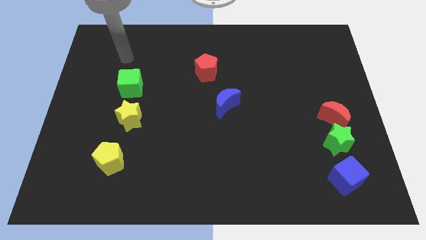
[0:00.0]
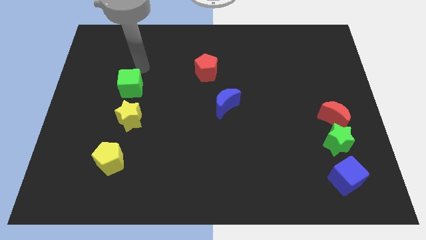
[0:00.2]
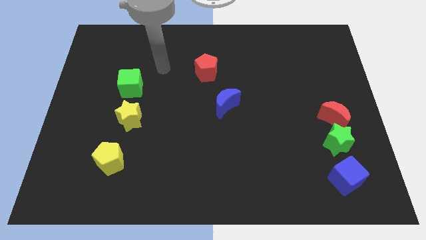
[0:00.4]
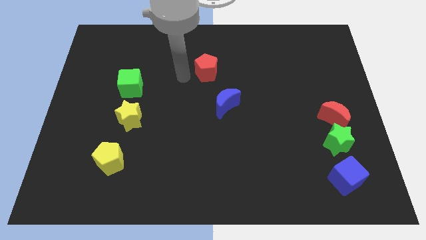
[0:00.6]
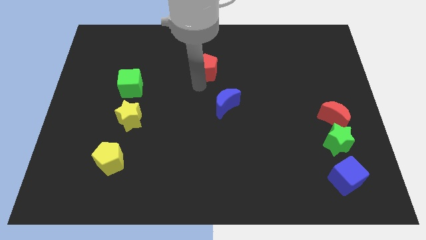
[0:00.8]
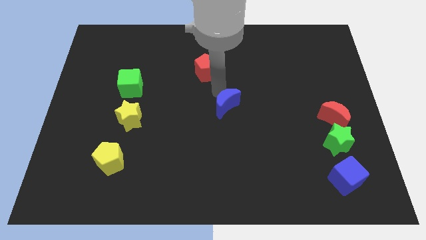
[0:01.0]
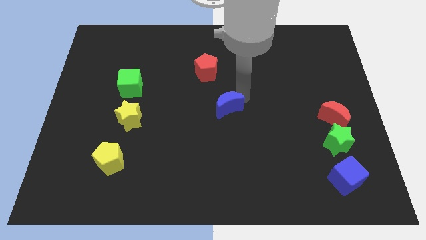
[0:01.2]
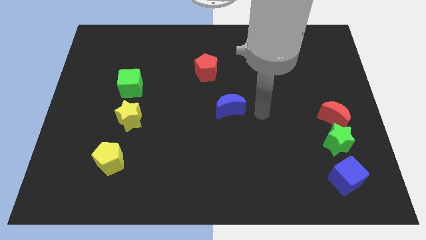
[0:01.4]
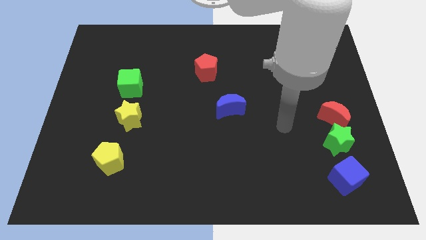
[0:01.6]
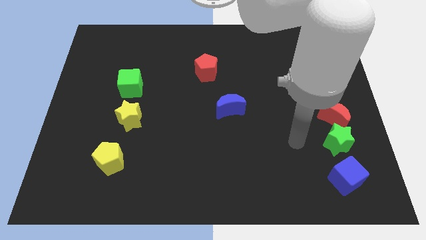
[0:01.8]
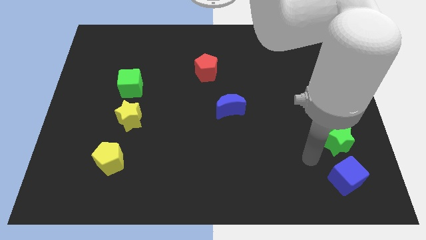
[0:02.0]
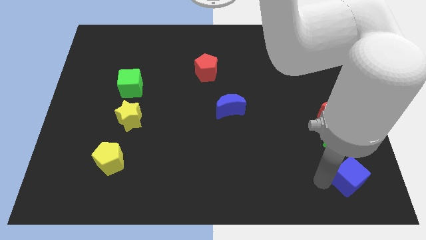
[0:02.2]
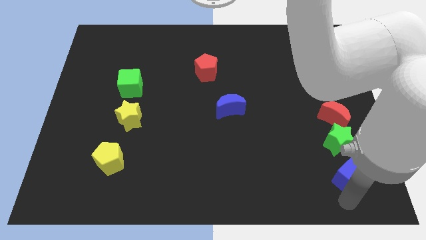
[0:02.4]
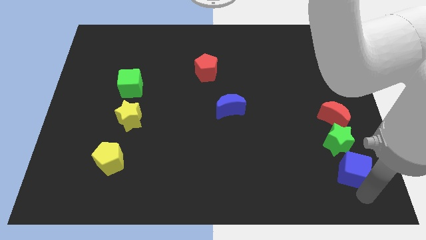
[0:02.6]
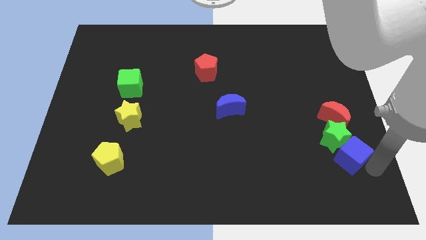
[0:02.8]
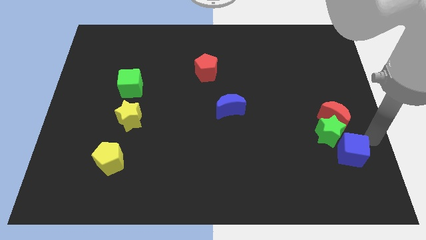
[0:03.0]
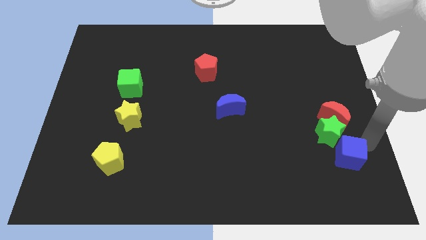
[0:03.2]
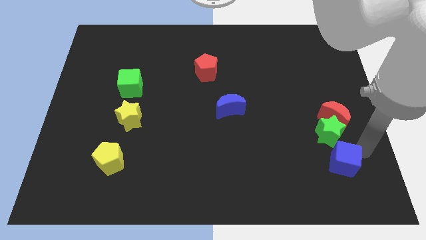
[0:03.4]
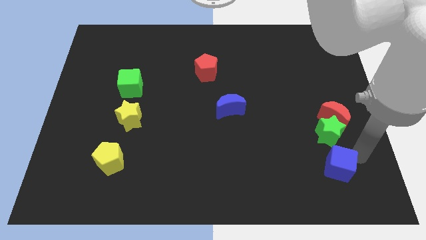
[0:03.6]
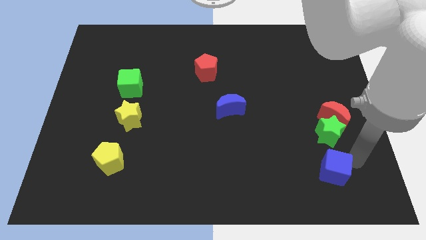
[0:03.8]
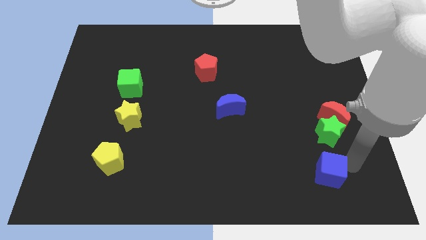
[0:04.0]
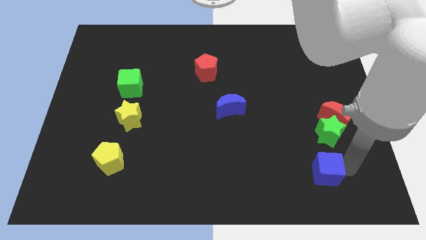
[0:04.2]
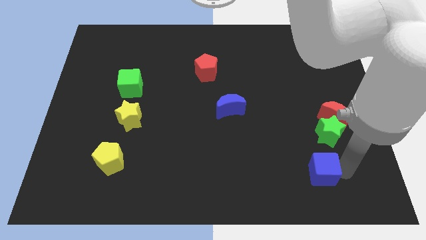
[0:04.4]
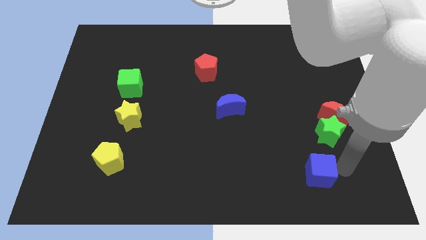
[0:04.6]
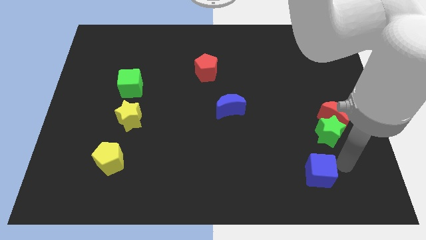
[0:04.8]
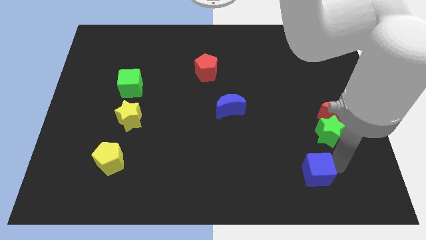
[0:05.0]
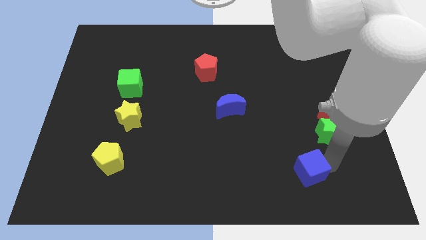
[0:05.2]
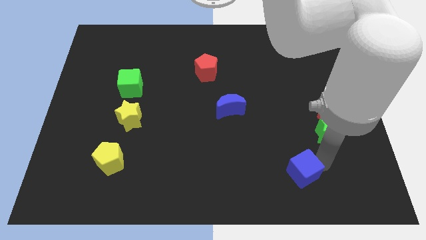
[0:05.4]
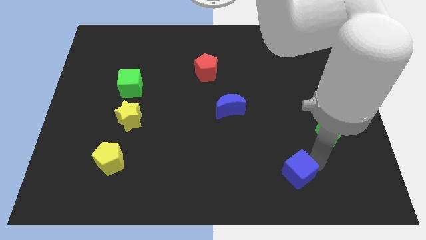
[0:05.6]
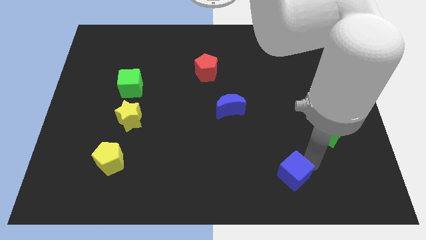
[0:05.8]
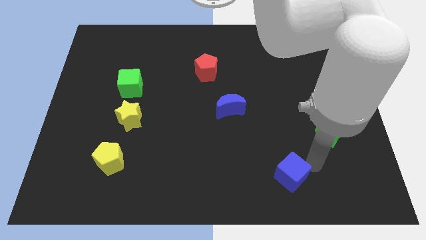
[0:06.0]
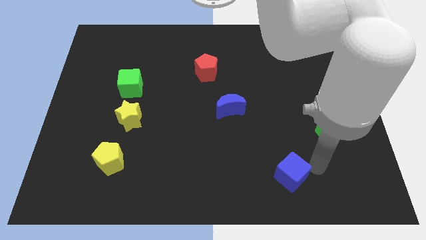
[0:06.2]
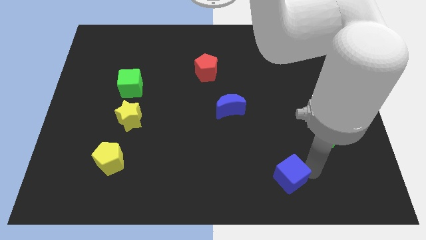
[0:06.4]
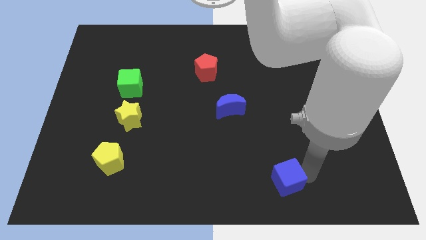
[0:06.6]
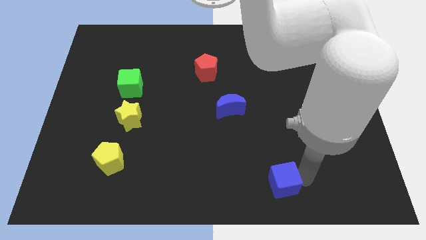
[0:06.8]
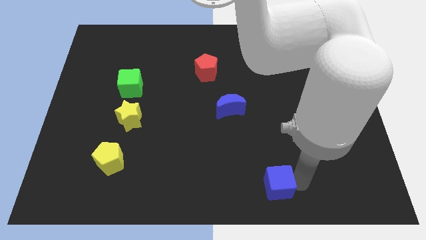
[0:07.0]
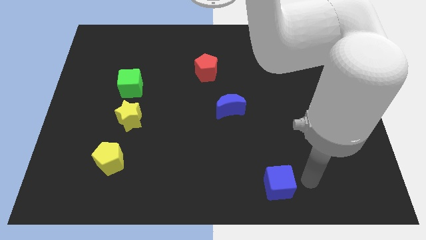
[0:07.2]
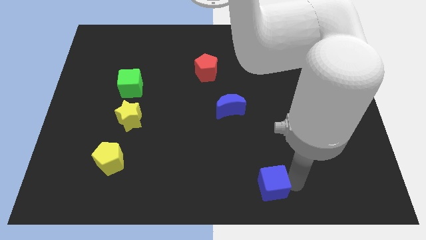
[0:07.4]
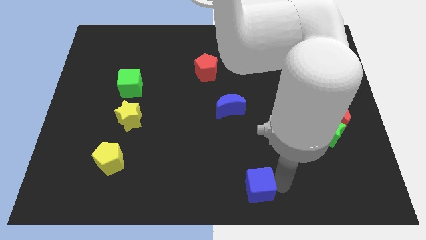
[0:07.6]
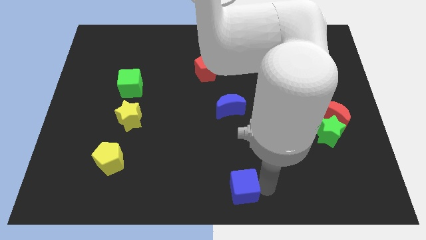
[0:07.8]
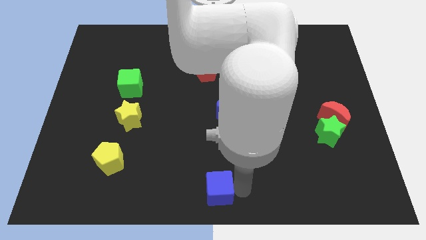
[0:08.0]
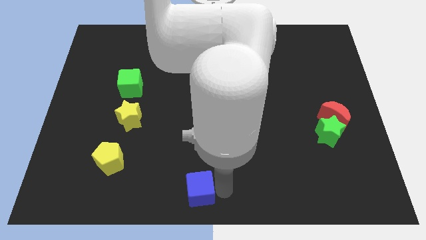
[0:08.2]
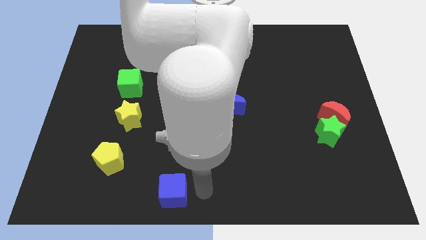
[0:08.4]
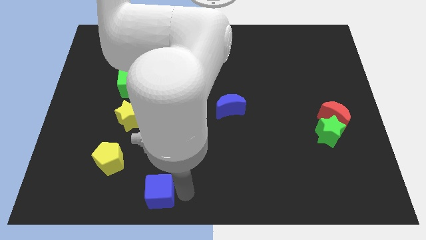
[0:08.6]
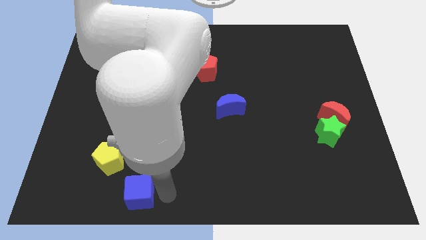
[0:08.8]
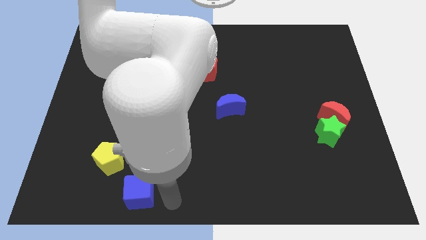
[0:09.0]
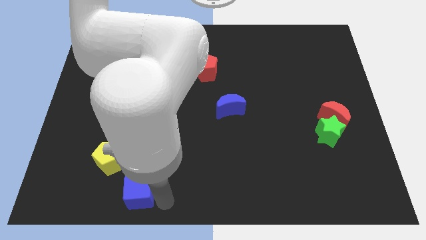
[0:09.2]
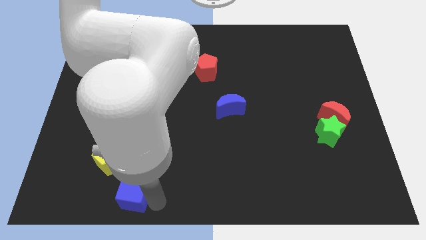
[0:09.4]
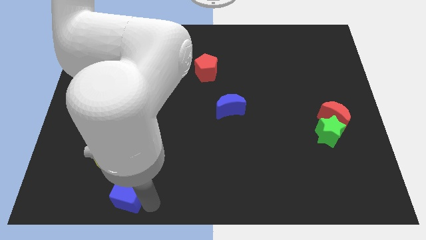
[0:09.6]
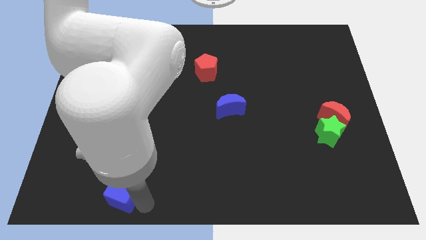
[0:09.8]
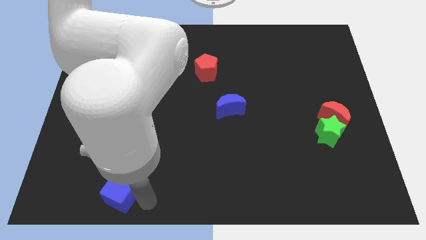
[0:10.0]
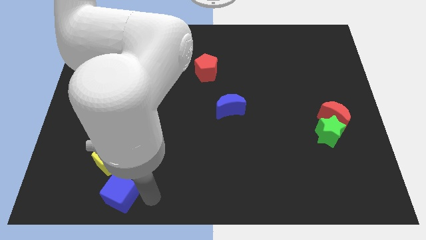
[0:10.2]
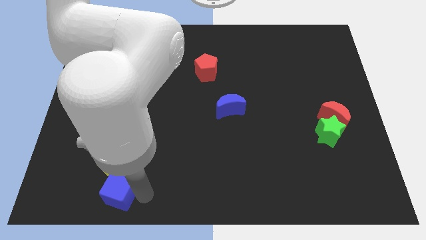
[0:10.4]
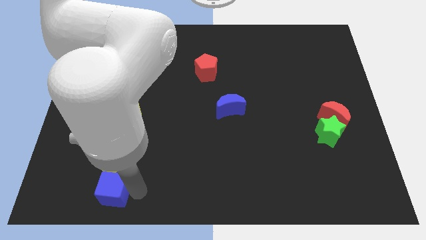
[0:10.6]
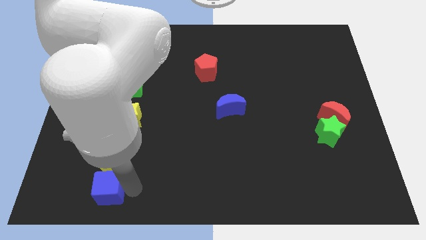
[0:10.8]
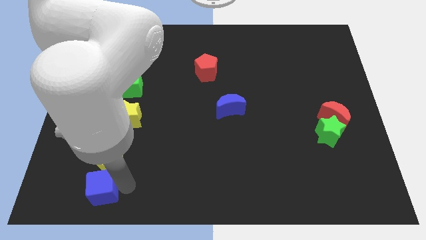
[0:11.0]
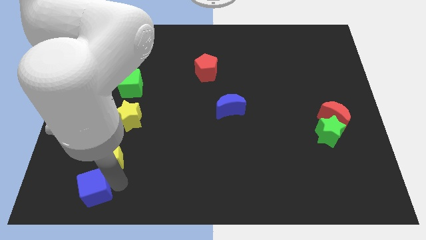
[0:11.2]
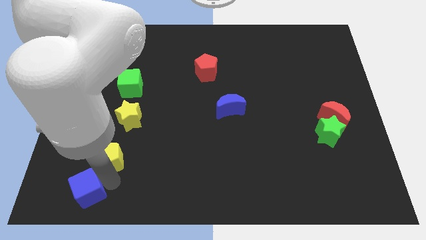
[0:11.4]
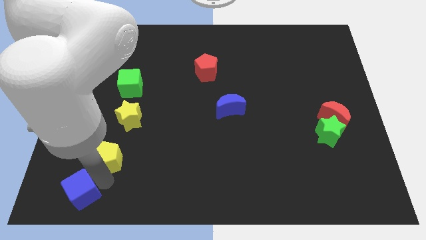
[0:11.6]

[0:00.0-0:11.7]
move the blue cube to the bottom left

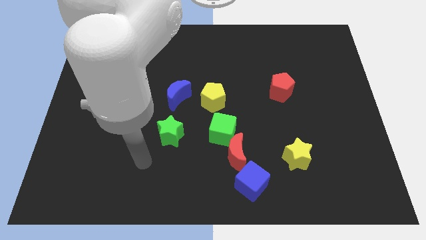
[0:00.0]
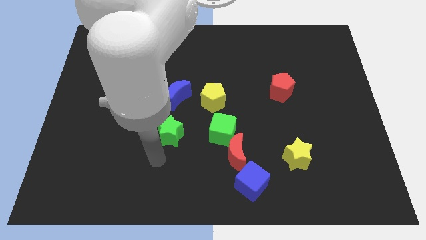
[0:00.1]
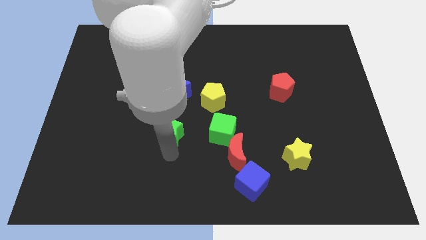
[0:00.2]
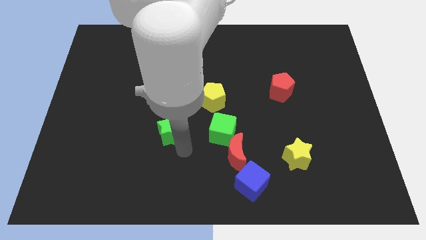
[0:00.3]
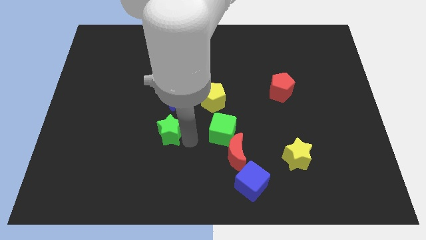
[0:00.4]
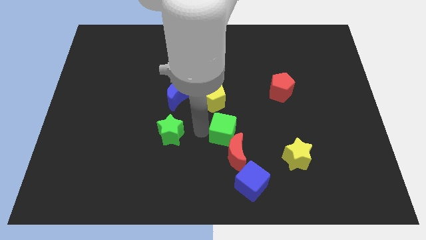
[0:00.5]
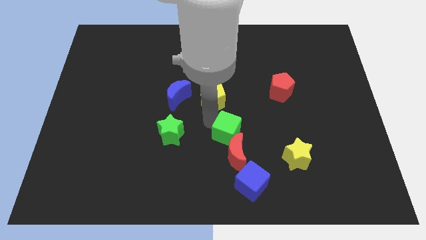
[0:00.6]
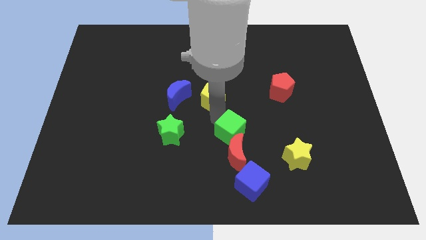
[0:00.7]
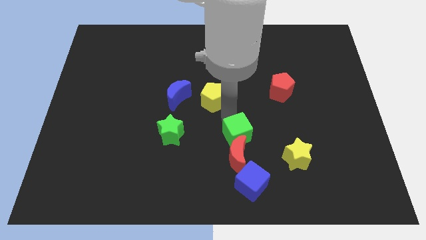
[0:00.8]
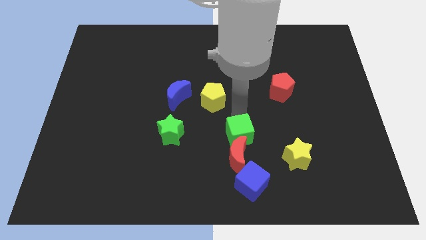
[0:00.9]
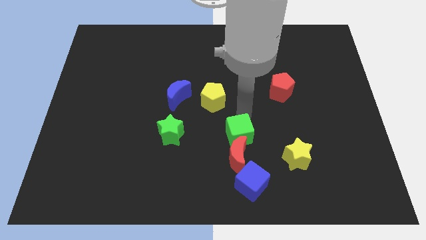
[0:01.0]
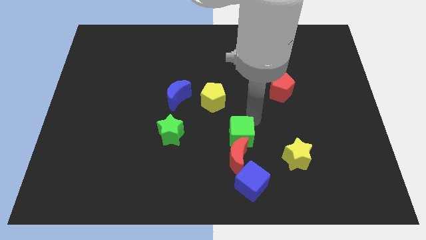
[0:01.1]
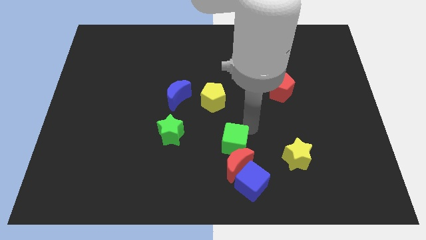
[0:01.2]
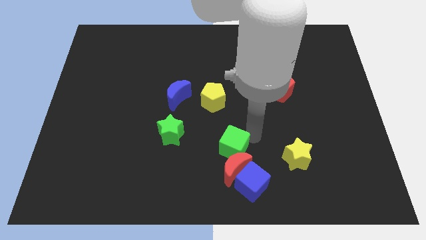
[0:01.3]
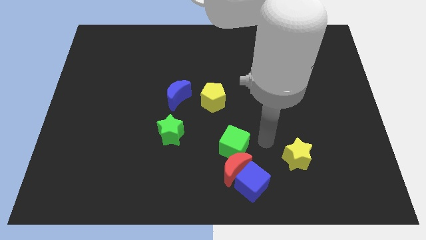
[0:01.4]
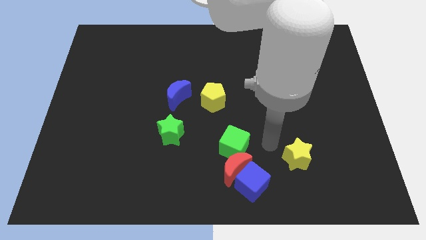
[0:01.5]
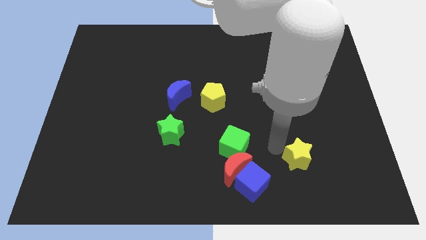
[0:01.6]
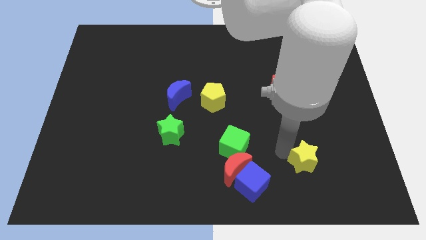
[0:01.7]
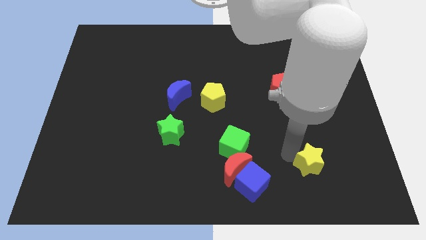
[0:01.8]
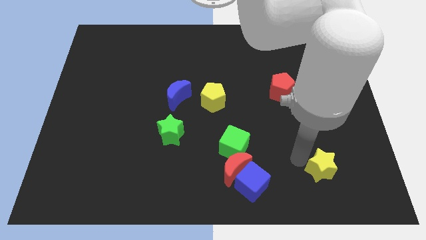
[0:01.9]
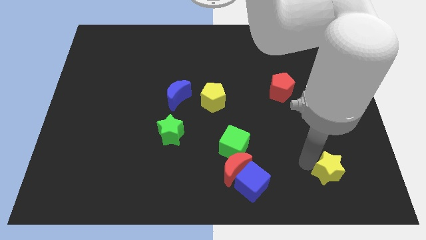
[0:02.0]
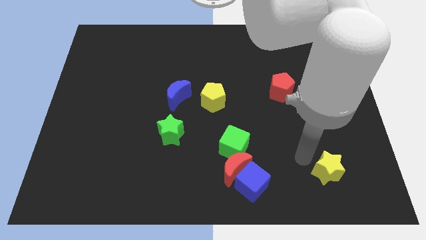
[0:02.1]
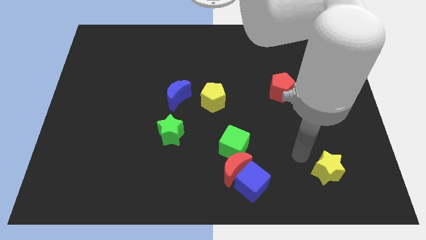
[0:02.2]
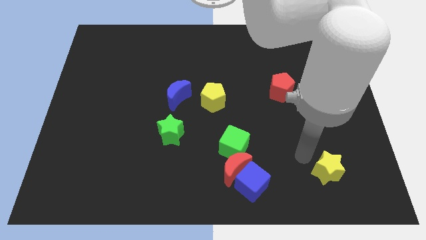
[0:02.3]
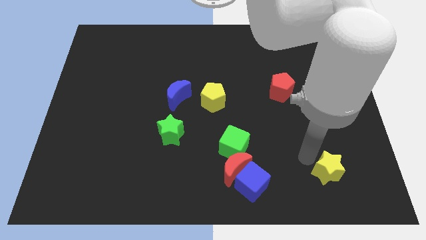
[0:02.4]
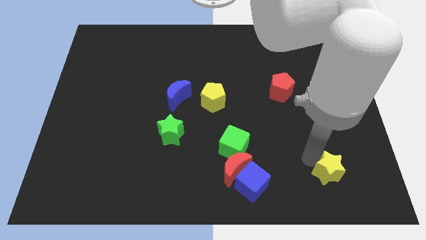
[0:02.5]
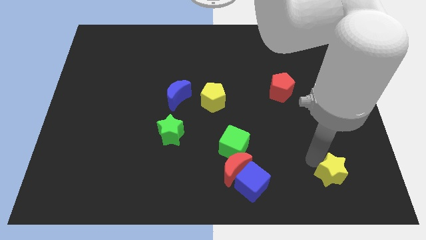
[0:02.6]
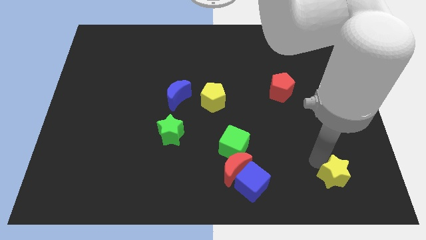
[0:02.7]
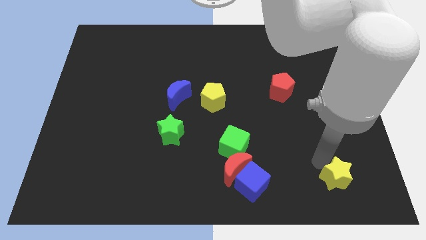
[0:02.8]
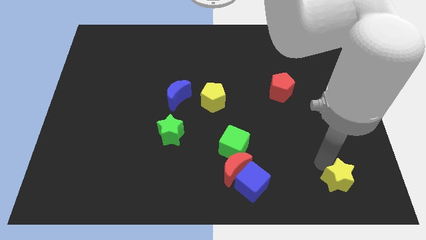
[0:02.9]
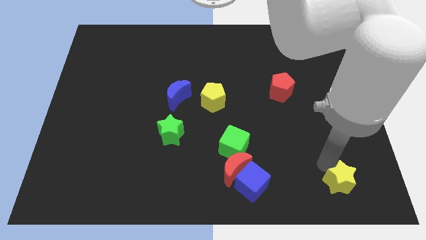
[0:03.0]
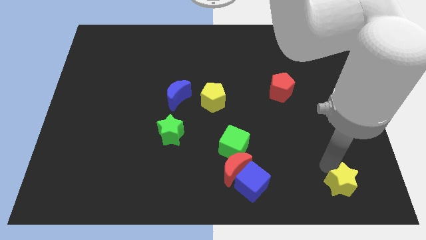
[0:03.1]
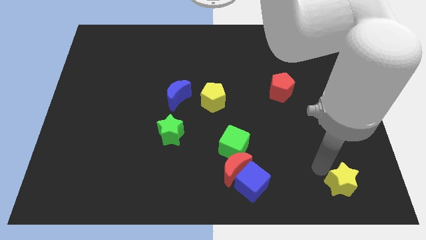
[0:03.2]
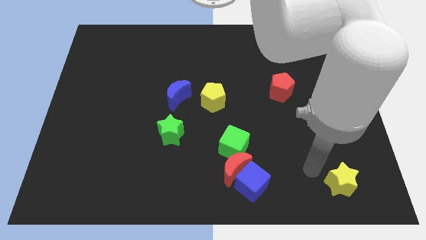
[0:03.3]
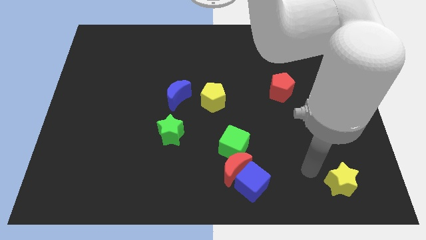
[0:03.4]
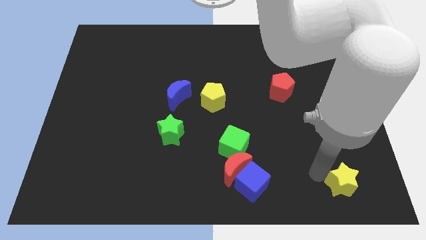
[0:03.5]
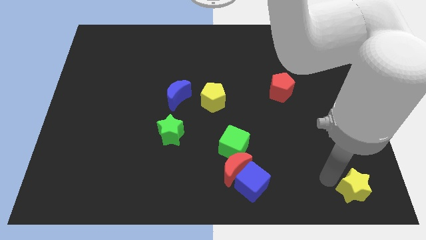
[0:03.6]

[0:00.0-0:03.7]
put the yellow star to the lower right corner
